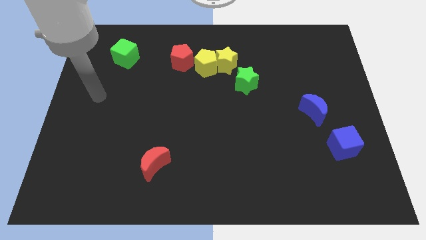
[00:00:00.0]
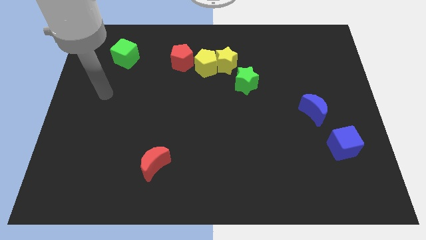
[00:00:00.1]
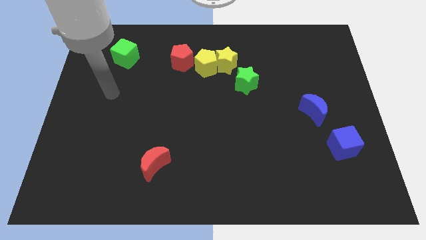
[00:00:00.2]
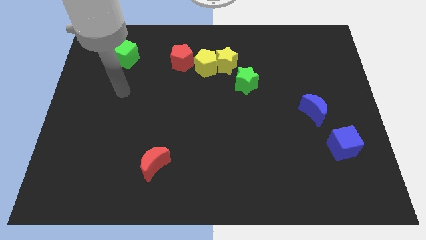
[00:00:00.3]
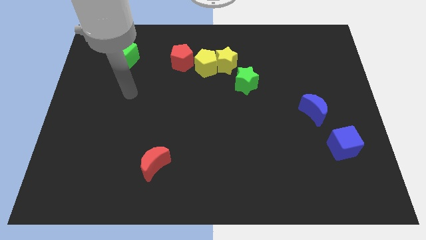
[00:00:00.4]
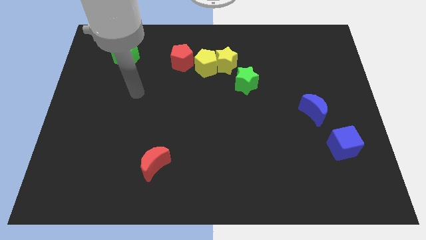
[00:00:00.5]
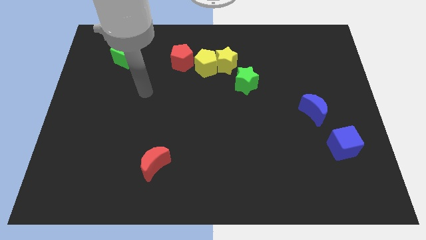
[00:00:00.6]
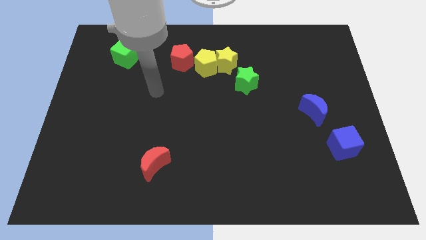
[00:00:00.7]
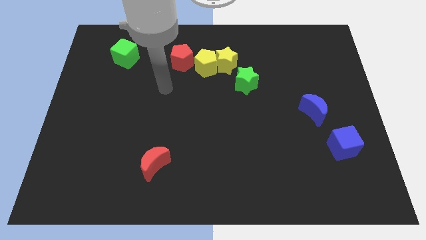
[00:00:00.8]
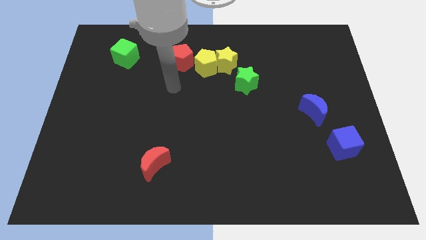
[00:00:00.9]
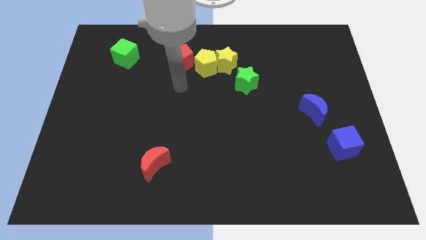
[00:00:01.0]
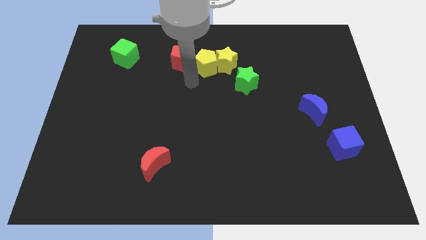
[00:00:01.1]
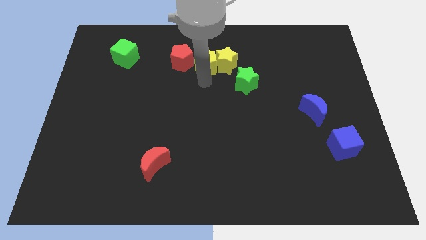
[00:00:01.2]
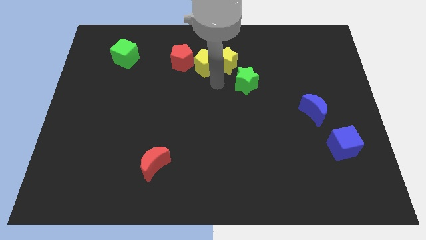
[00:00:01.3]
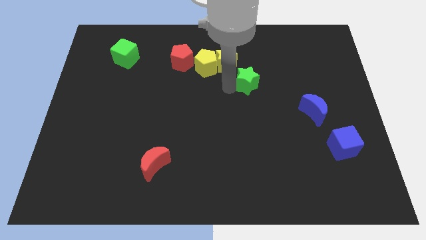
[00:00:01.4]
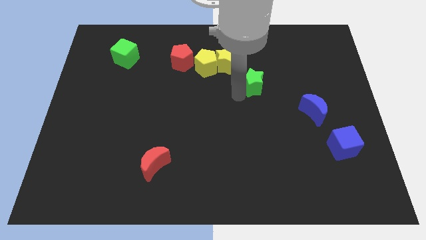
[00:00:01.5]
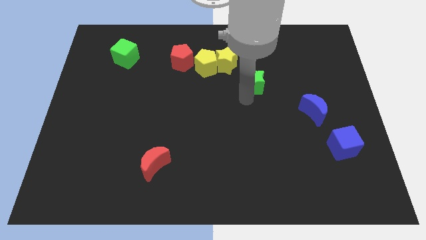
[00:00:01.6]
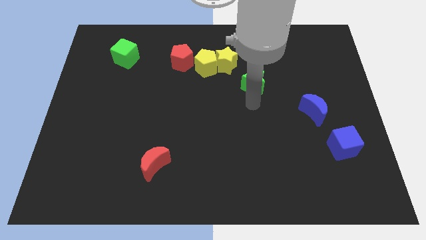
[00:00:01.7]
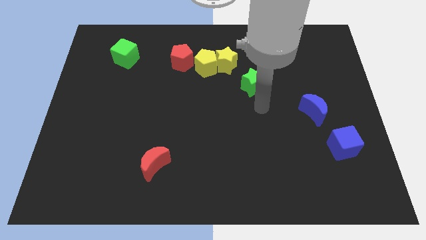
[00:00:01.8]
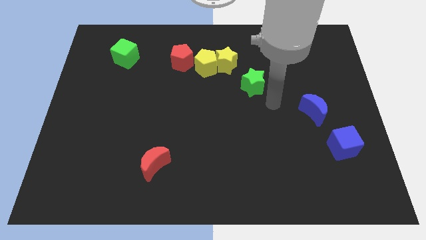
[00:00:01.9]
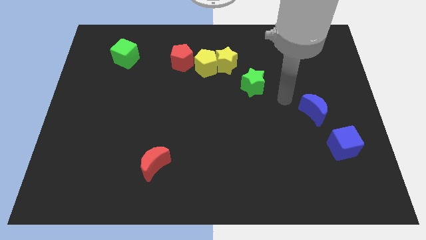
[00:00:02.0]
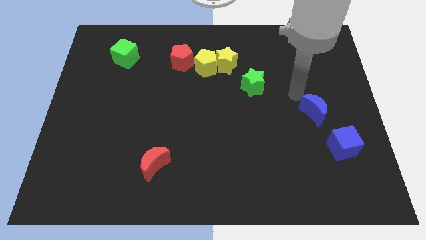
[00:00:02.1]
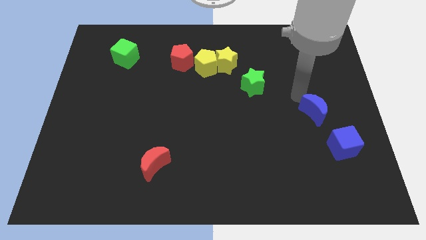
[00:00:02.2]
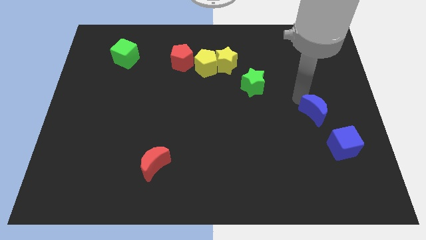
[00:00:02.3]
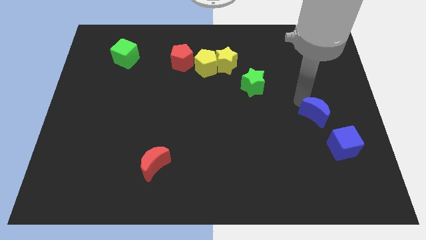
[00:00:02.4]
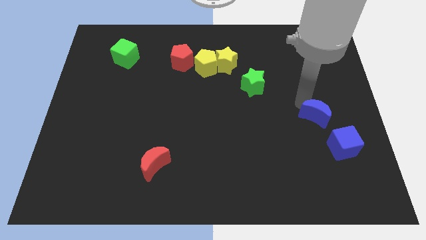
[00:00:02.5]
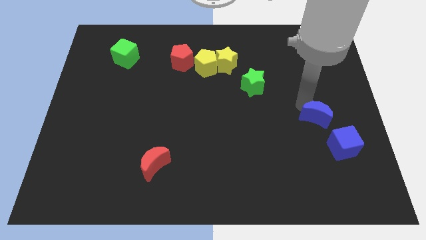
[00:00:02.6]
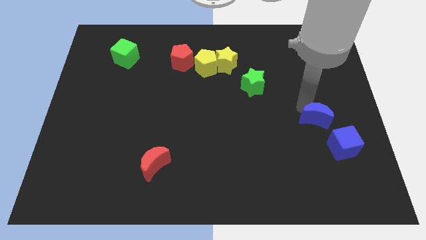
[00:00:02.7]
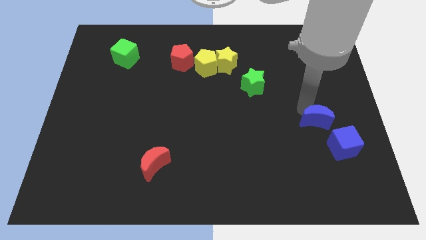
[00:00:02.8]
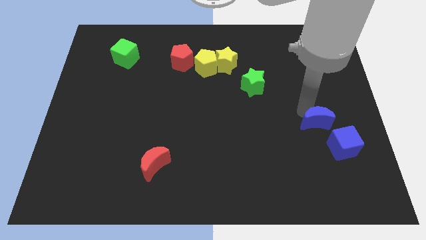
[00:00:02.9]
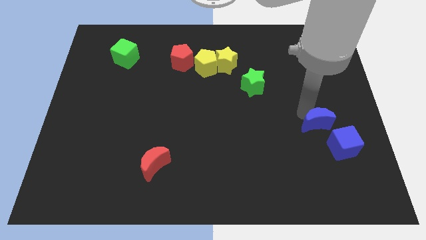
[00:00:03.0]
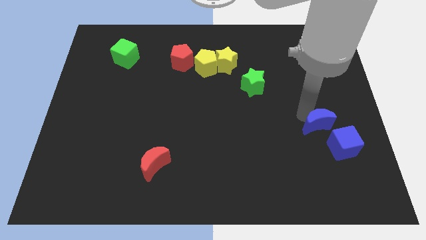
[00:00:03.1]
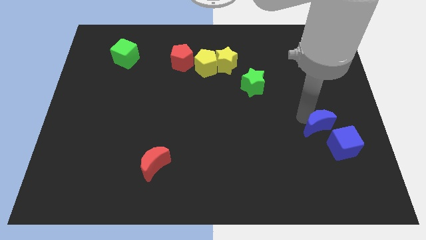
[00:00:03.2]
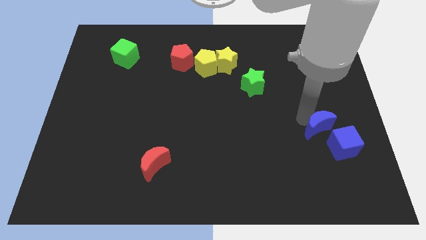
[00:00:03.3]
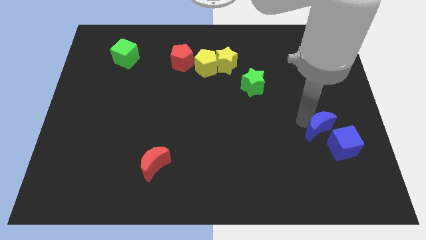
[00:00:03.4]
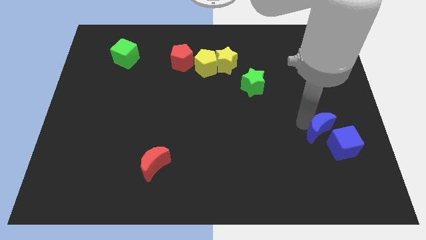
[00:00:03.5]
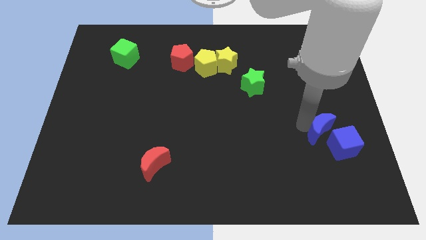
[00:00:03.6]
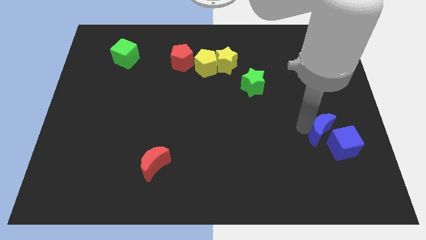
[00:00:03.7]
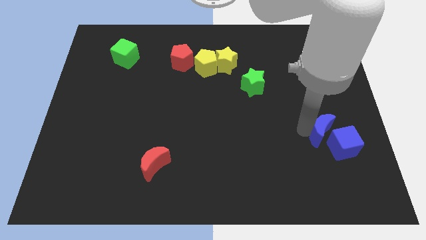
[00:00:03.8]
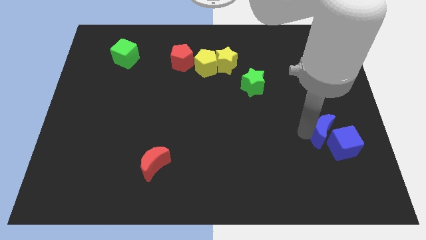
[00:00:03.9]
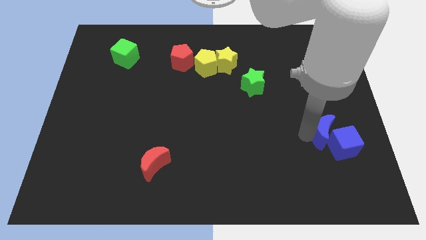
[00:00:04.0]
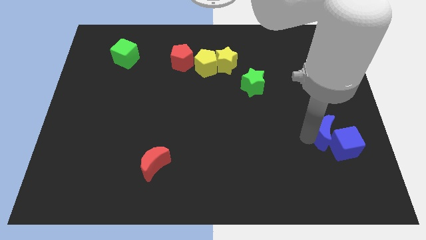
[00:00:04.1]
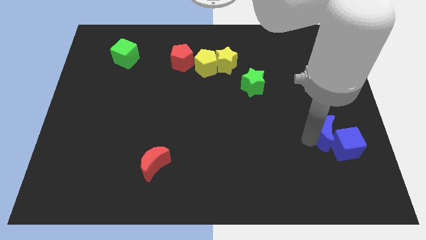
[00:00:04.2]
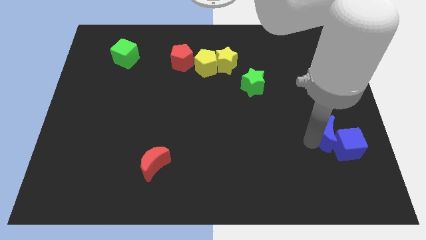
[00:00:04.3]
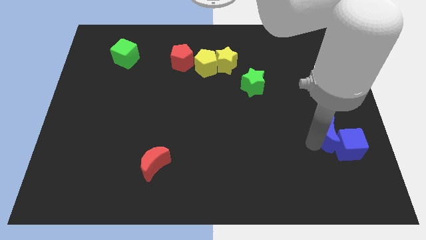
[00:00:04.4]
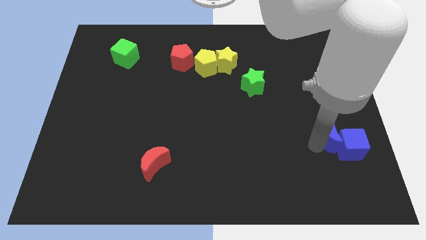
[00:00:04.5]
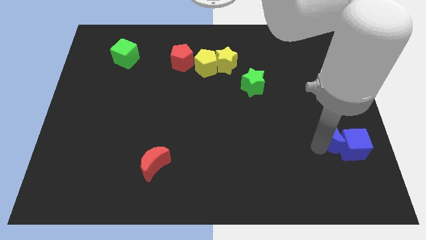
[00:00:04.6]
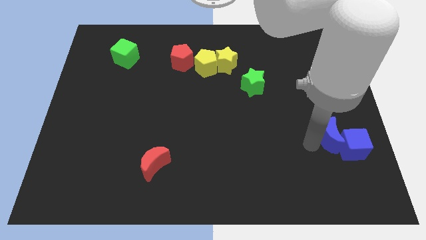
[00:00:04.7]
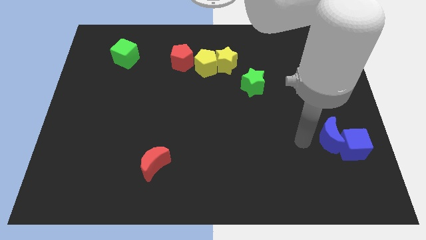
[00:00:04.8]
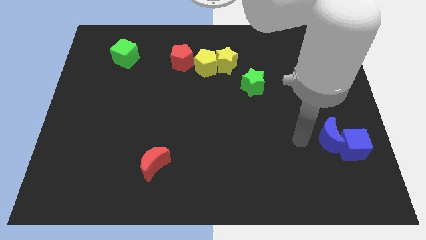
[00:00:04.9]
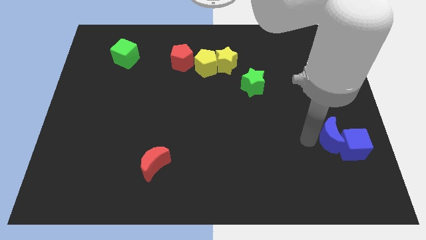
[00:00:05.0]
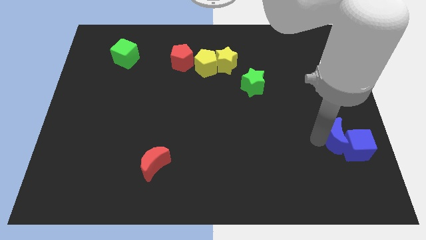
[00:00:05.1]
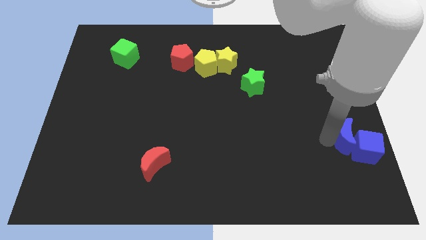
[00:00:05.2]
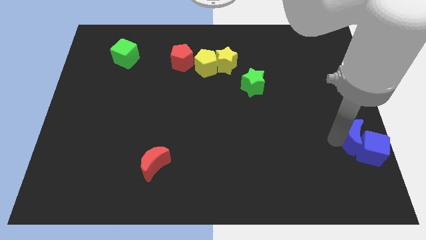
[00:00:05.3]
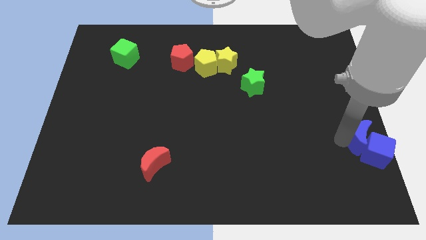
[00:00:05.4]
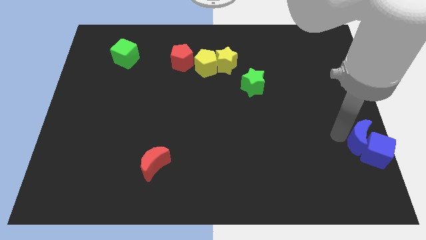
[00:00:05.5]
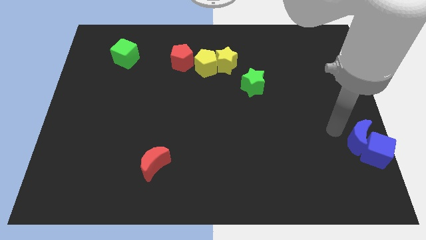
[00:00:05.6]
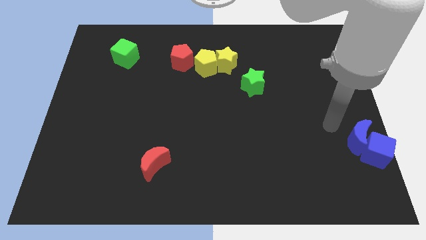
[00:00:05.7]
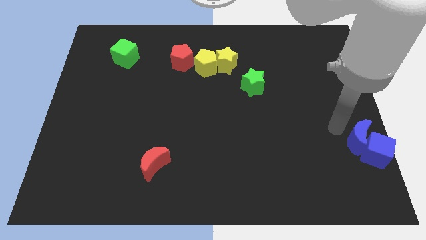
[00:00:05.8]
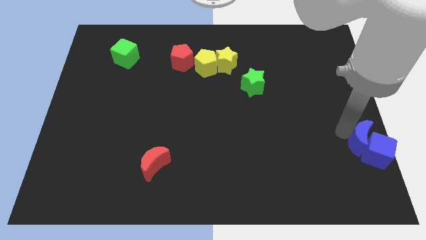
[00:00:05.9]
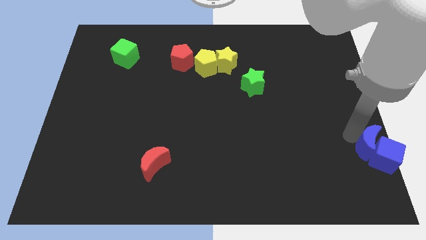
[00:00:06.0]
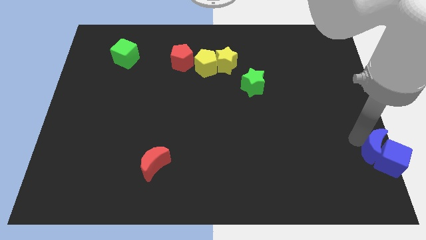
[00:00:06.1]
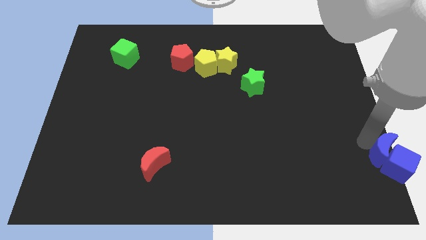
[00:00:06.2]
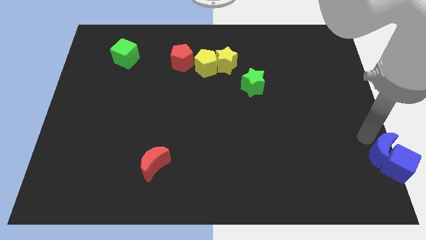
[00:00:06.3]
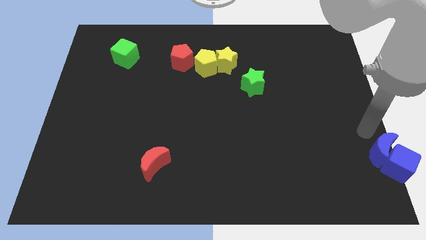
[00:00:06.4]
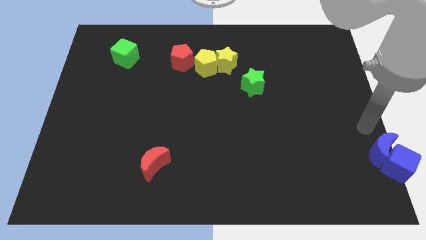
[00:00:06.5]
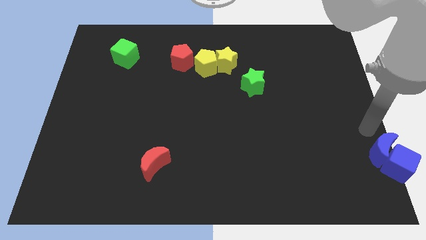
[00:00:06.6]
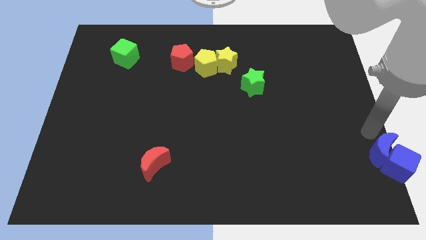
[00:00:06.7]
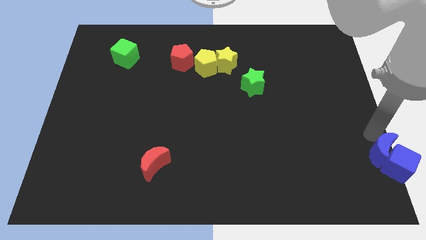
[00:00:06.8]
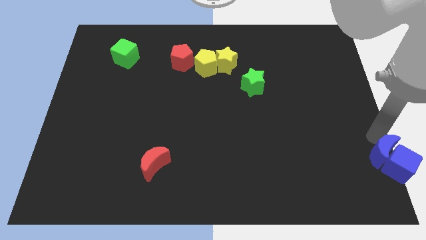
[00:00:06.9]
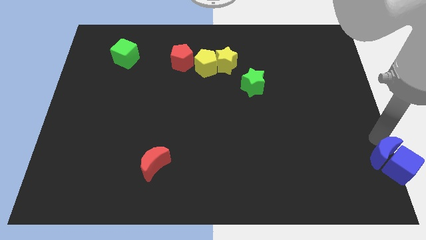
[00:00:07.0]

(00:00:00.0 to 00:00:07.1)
push the blue moon to the bottom right of the board
